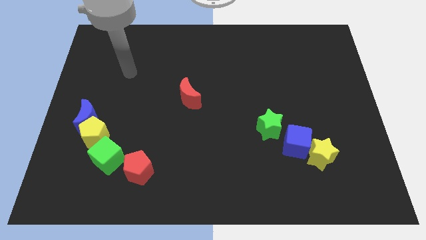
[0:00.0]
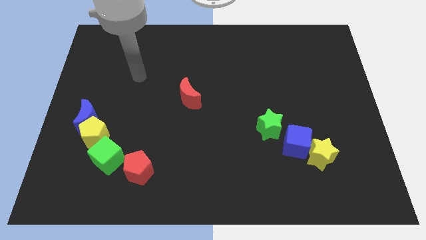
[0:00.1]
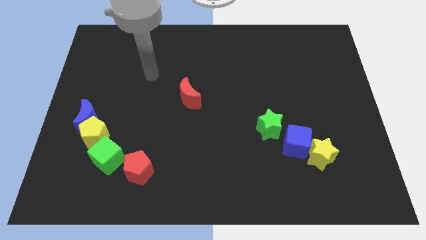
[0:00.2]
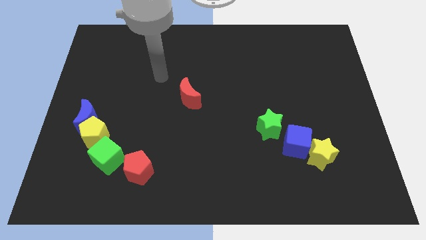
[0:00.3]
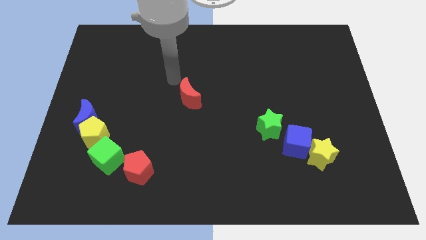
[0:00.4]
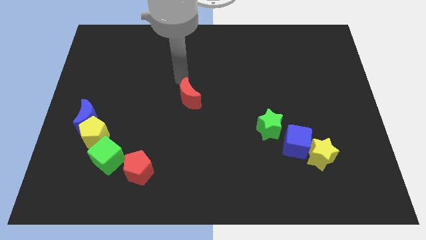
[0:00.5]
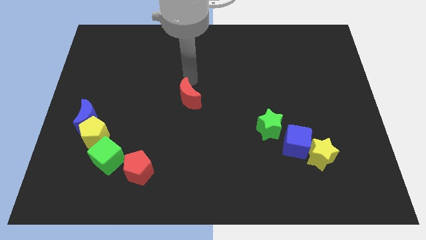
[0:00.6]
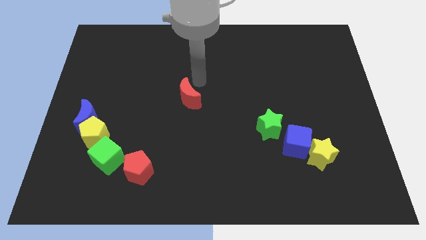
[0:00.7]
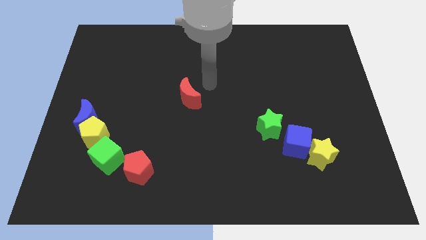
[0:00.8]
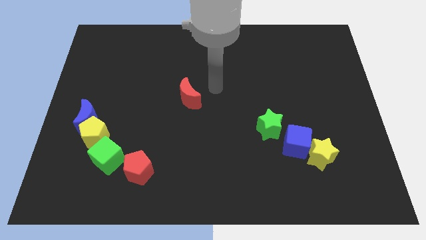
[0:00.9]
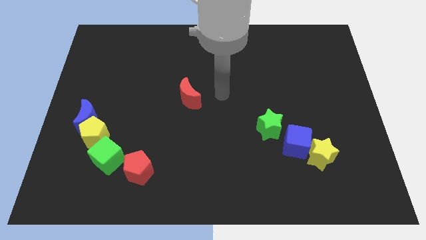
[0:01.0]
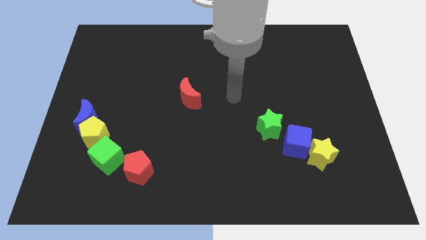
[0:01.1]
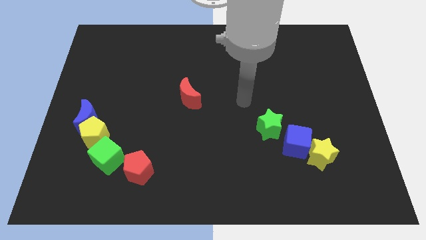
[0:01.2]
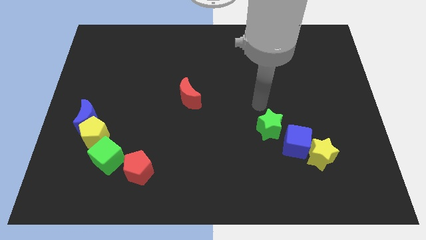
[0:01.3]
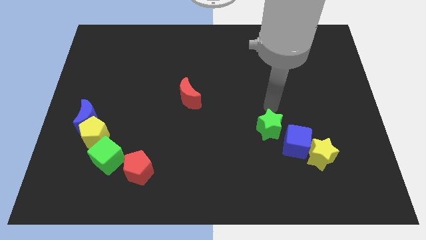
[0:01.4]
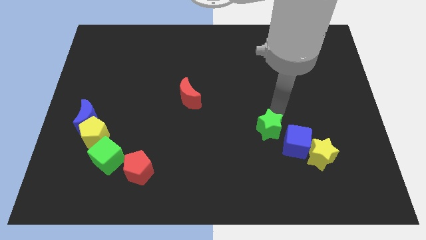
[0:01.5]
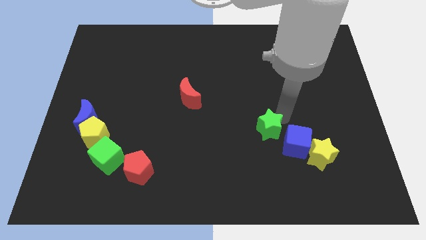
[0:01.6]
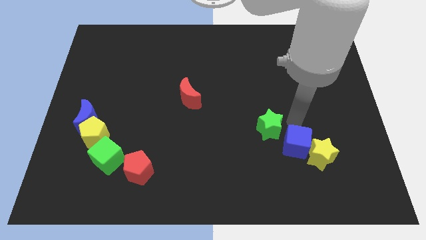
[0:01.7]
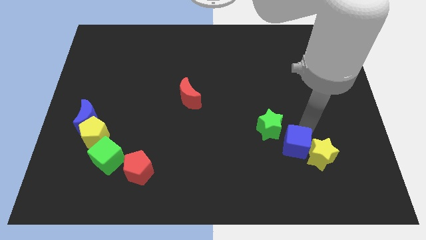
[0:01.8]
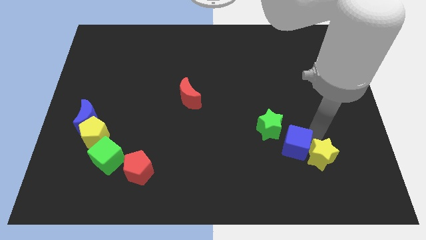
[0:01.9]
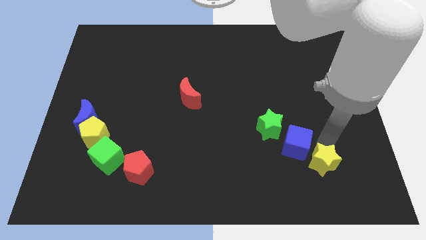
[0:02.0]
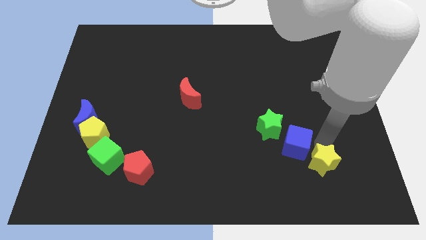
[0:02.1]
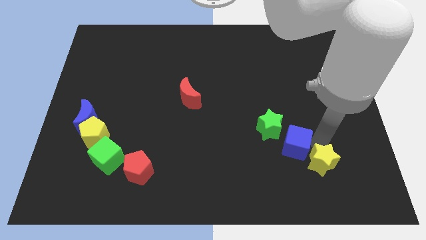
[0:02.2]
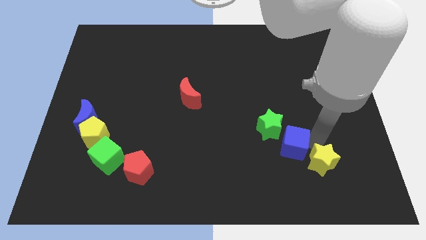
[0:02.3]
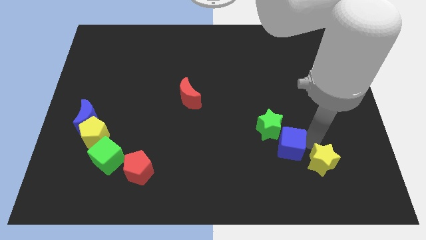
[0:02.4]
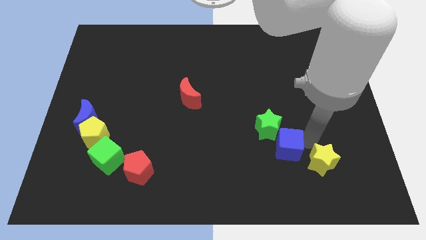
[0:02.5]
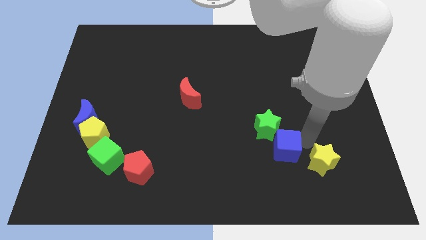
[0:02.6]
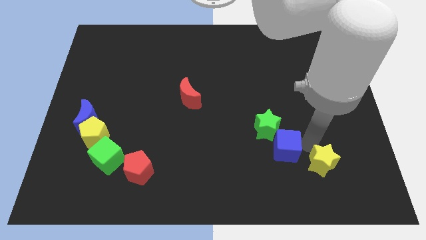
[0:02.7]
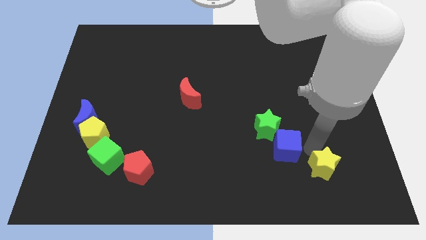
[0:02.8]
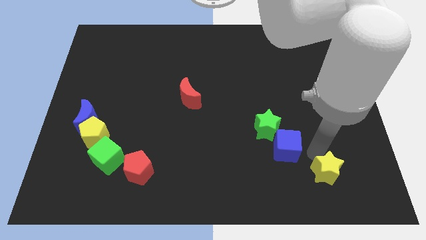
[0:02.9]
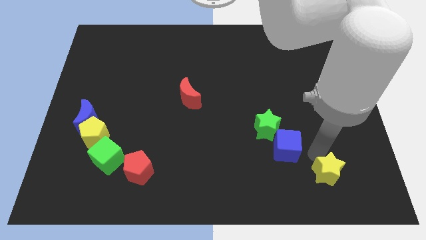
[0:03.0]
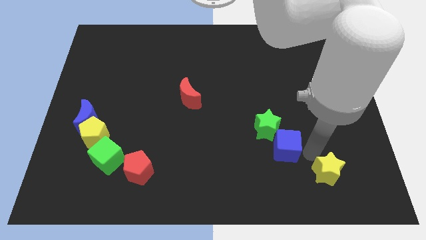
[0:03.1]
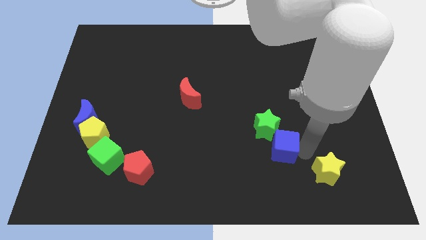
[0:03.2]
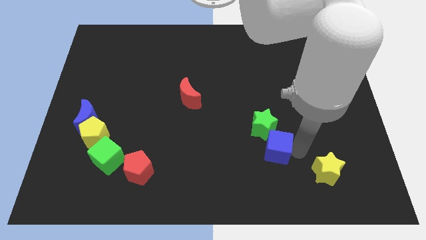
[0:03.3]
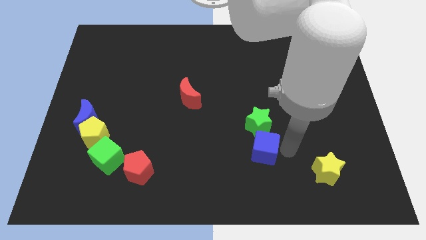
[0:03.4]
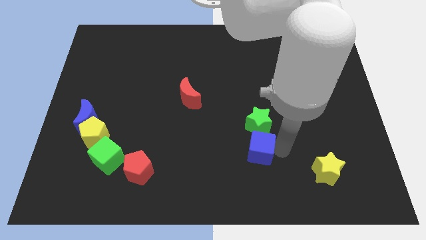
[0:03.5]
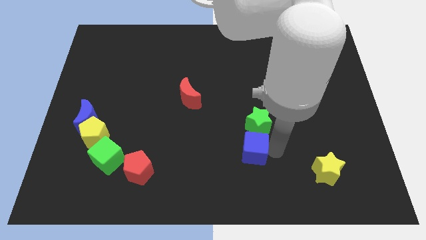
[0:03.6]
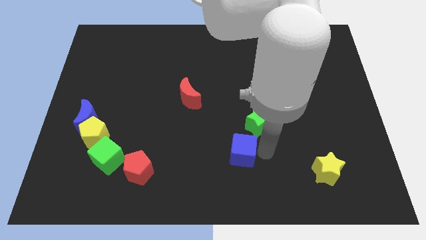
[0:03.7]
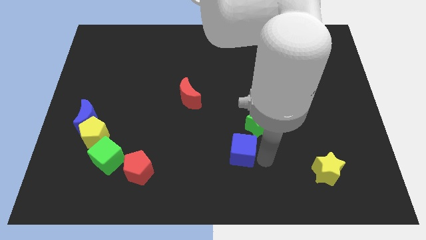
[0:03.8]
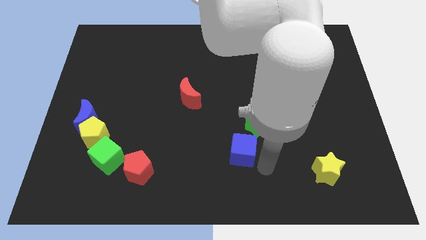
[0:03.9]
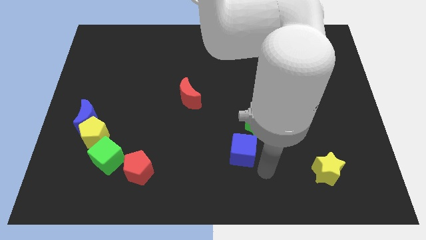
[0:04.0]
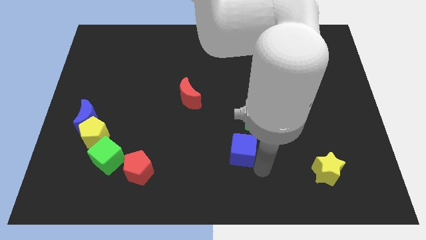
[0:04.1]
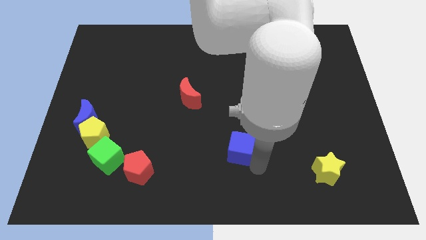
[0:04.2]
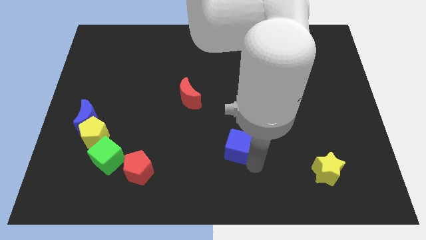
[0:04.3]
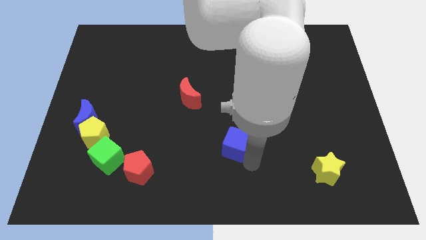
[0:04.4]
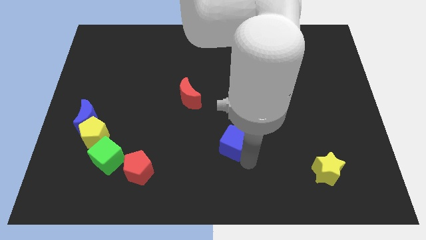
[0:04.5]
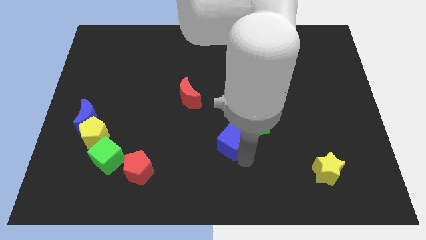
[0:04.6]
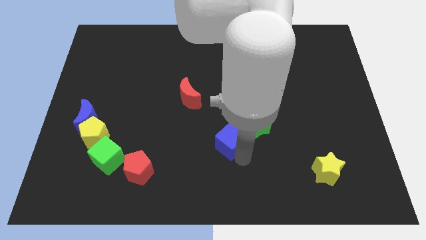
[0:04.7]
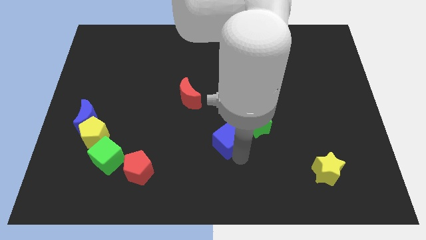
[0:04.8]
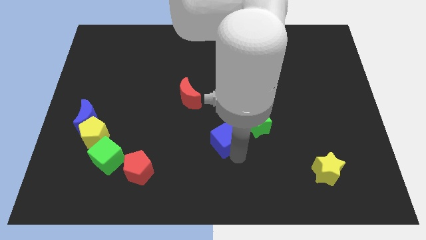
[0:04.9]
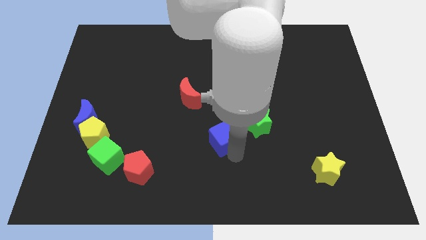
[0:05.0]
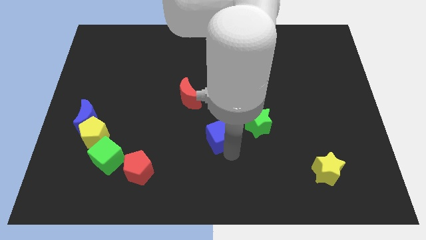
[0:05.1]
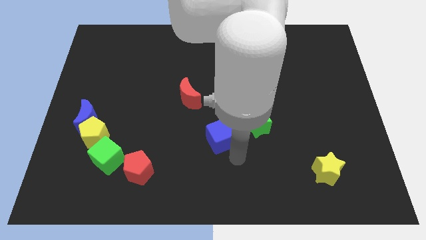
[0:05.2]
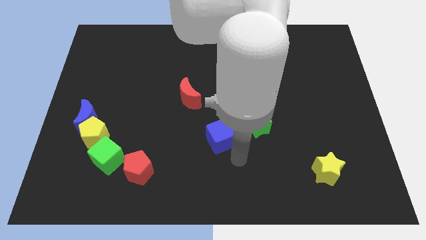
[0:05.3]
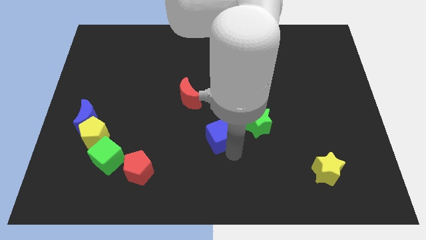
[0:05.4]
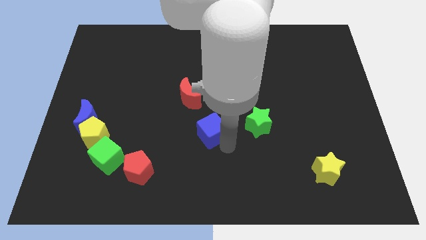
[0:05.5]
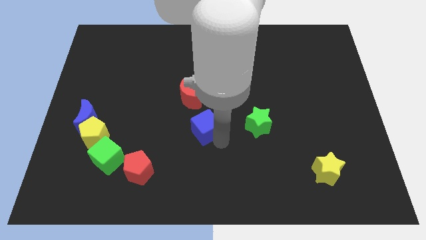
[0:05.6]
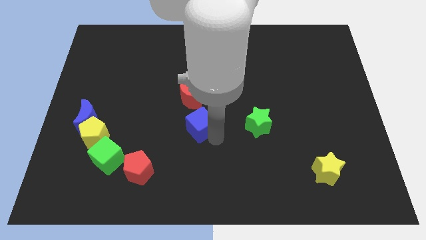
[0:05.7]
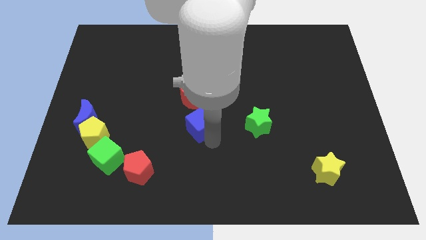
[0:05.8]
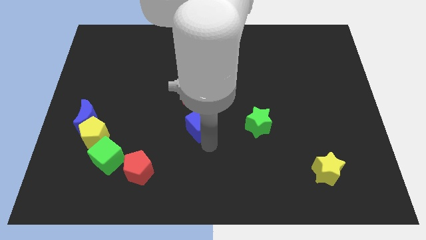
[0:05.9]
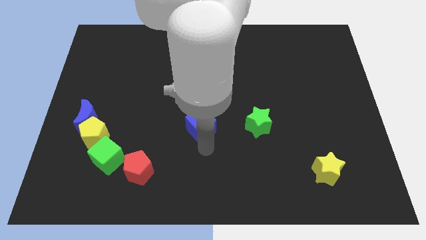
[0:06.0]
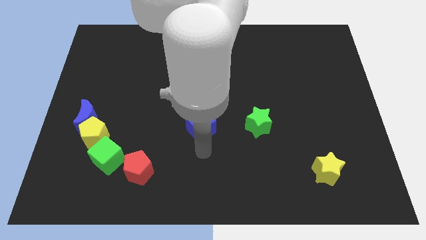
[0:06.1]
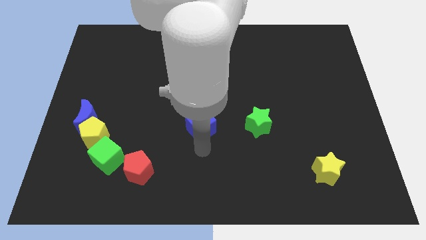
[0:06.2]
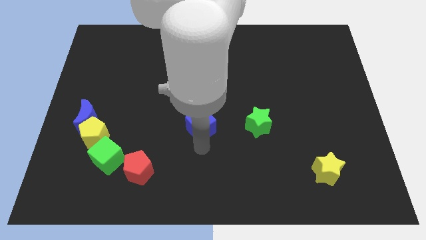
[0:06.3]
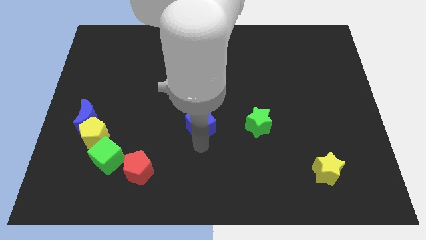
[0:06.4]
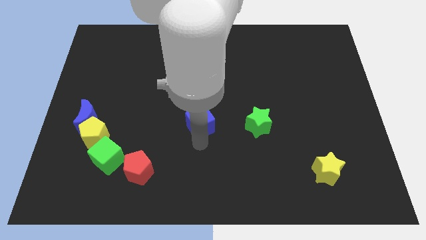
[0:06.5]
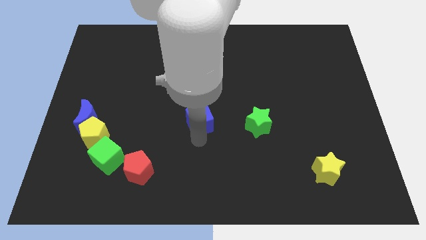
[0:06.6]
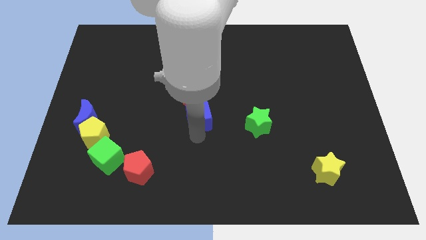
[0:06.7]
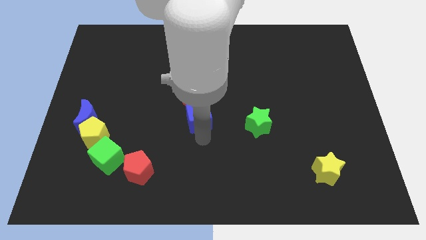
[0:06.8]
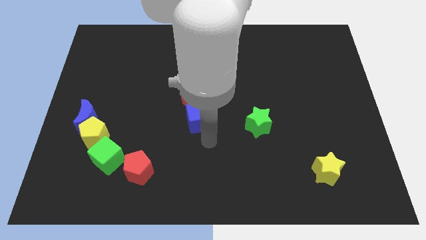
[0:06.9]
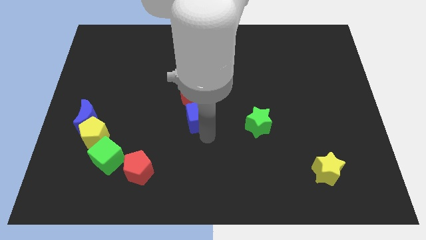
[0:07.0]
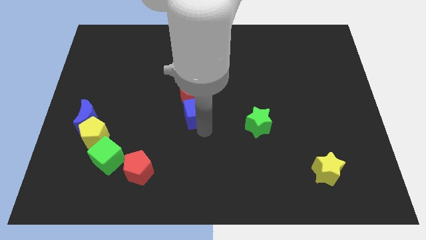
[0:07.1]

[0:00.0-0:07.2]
slide the blue cube to the red moon
